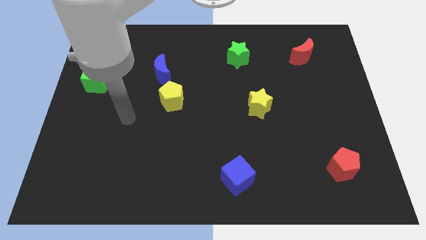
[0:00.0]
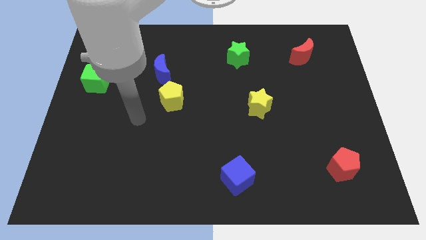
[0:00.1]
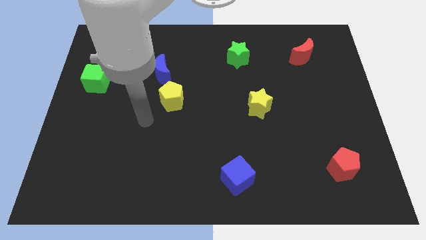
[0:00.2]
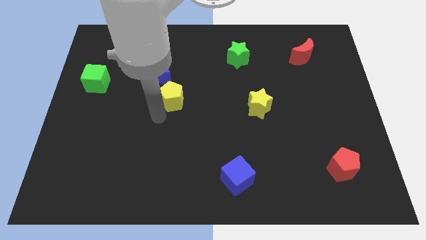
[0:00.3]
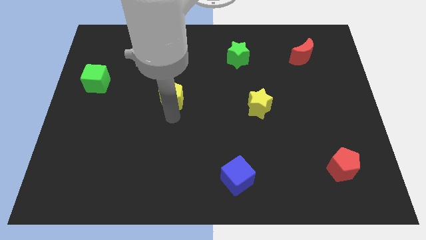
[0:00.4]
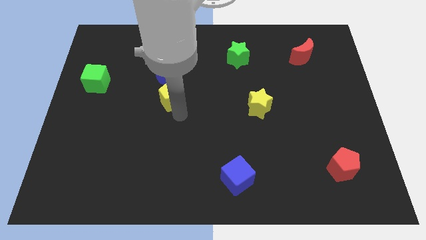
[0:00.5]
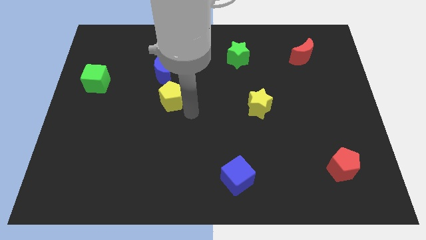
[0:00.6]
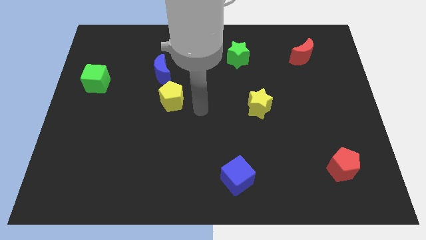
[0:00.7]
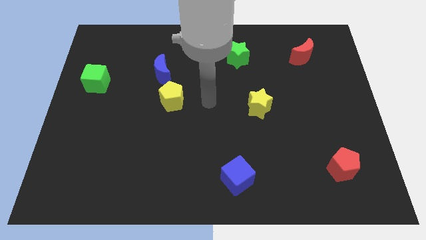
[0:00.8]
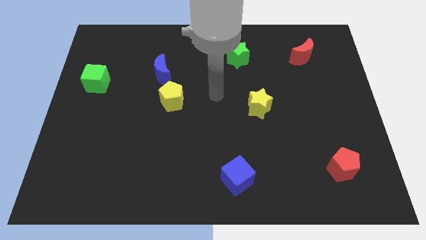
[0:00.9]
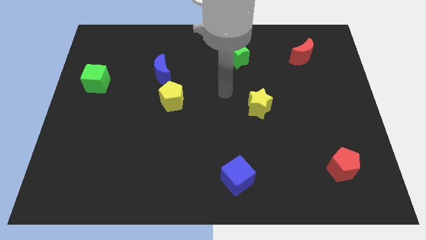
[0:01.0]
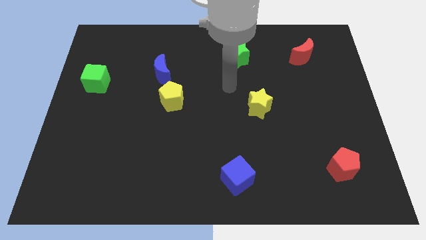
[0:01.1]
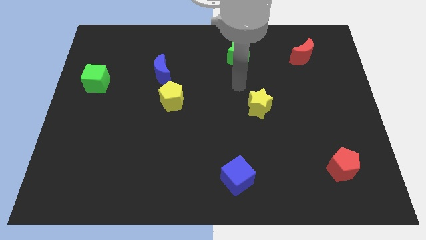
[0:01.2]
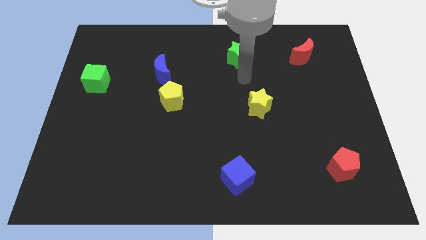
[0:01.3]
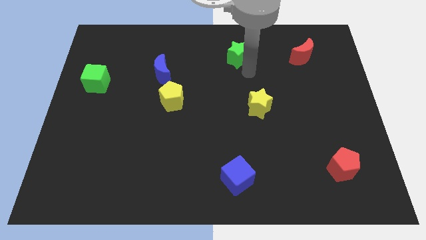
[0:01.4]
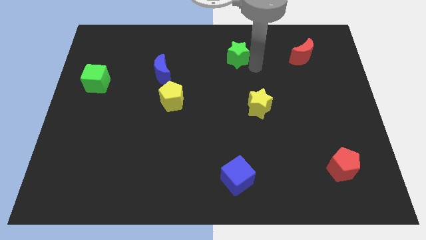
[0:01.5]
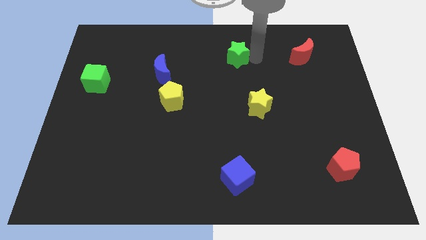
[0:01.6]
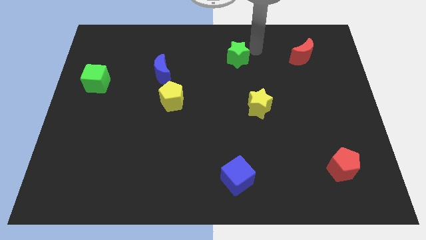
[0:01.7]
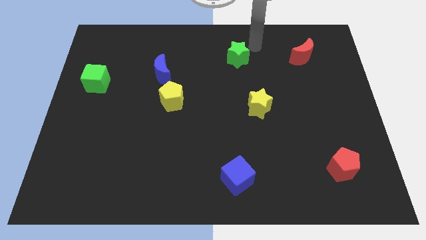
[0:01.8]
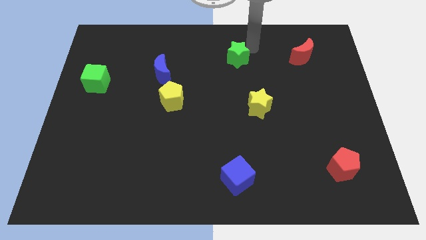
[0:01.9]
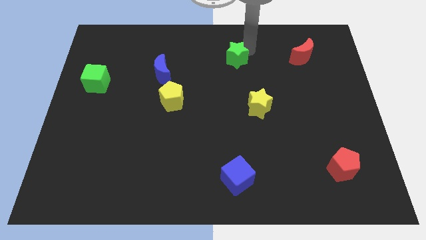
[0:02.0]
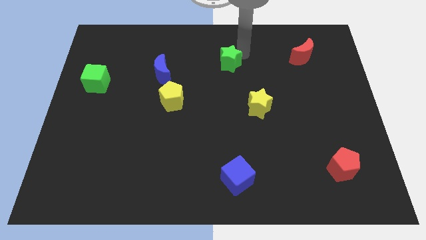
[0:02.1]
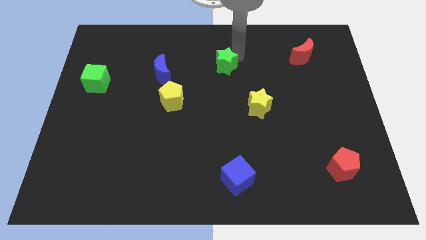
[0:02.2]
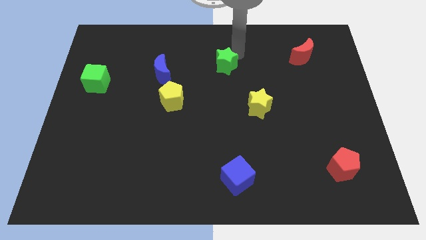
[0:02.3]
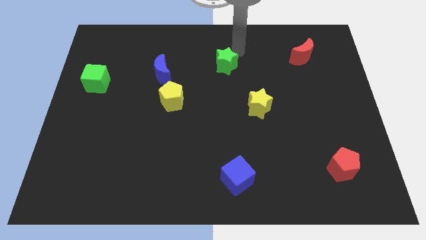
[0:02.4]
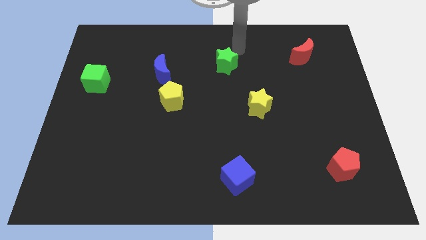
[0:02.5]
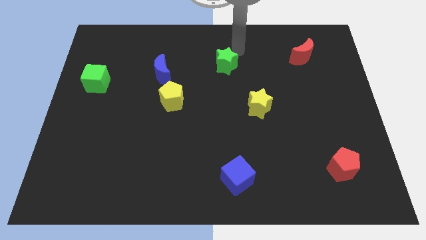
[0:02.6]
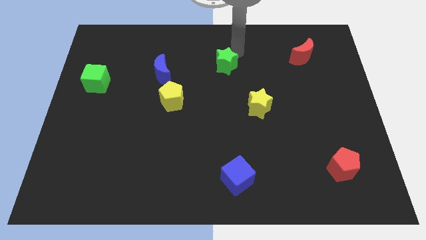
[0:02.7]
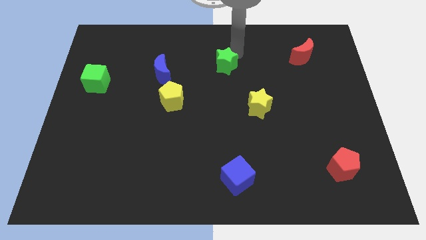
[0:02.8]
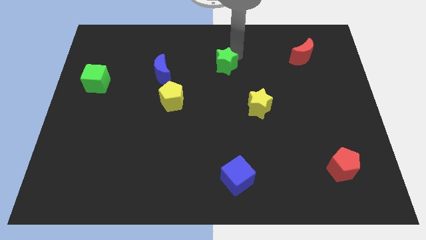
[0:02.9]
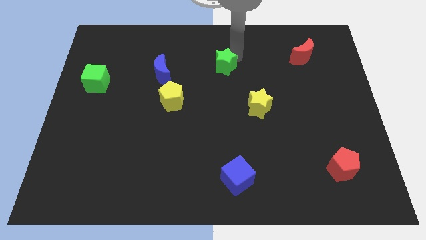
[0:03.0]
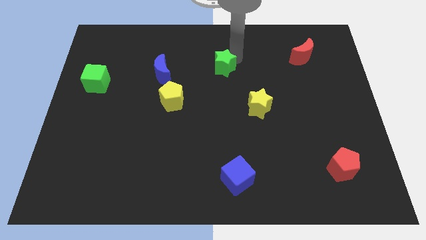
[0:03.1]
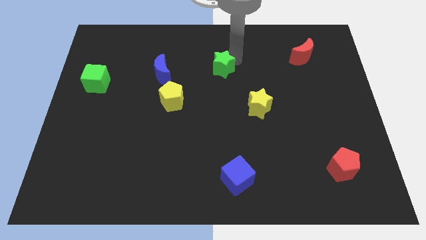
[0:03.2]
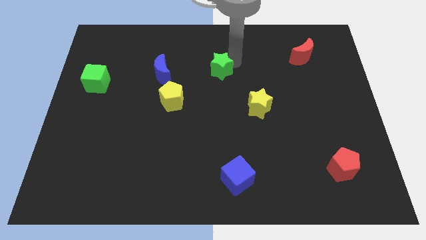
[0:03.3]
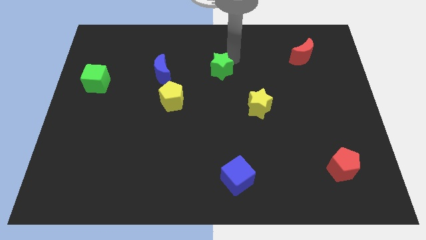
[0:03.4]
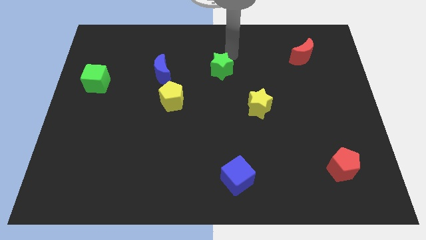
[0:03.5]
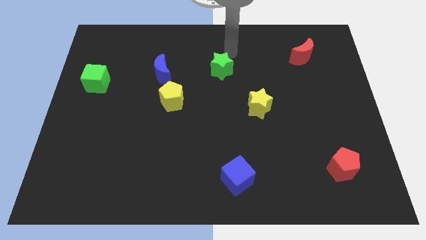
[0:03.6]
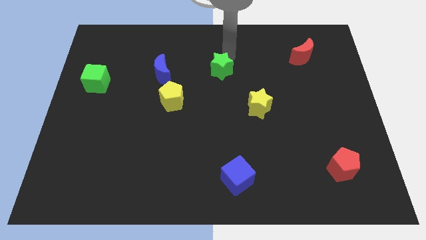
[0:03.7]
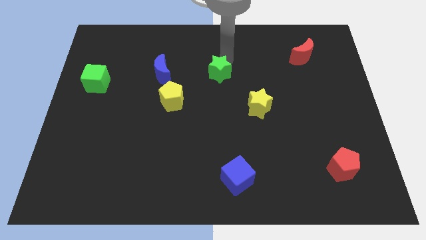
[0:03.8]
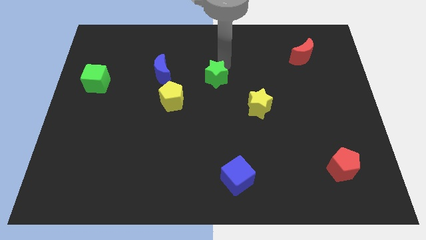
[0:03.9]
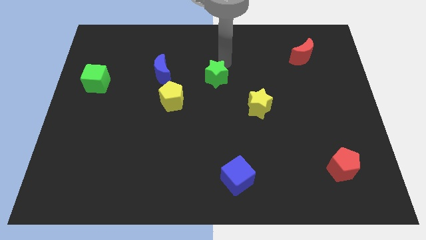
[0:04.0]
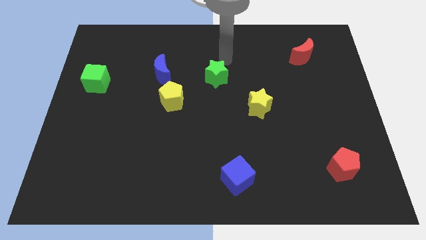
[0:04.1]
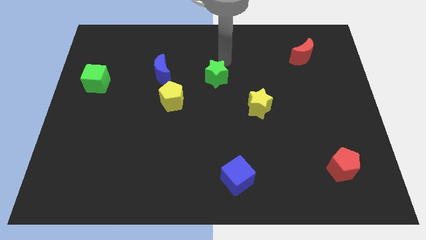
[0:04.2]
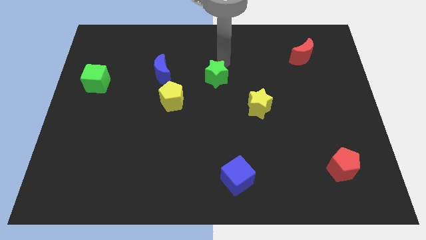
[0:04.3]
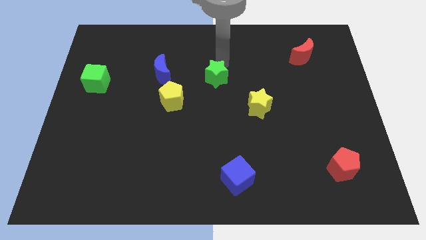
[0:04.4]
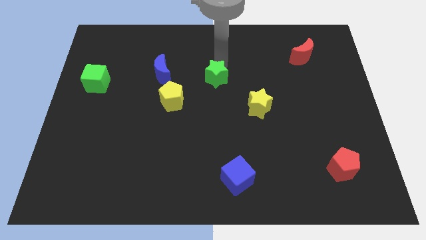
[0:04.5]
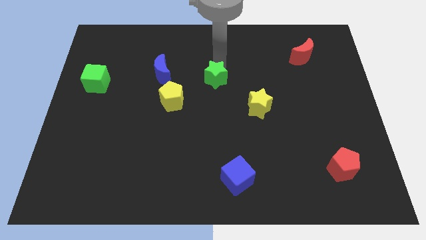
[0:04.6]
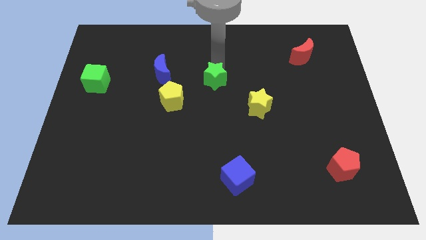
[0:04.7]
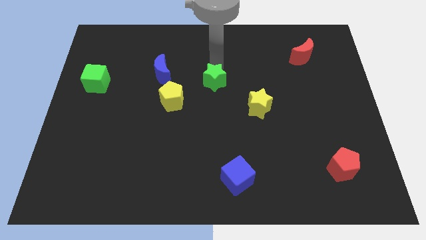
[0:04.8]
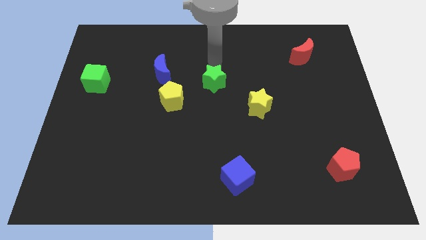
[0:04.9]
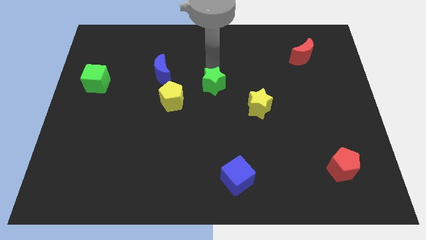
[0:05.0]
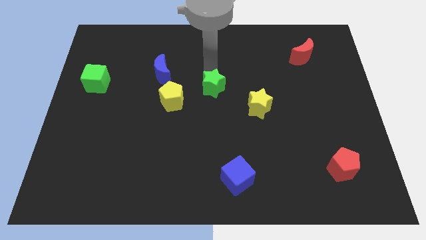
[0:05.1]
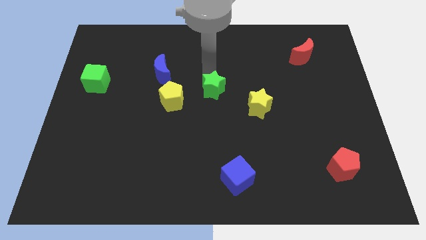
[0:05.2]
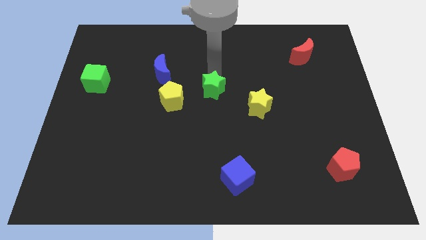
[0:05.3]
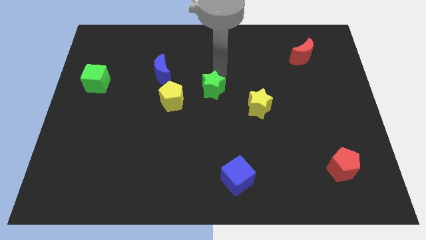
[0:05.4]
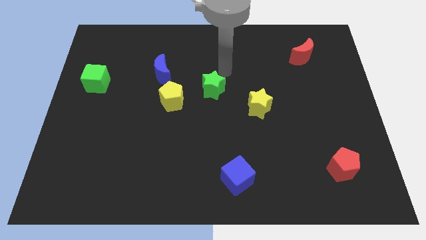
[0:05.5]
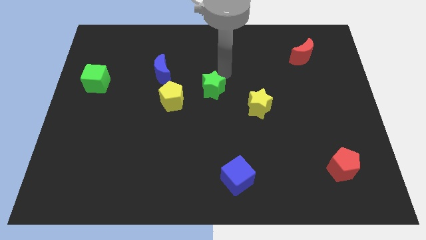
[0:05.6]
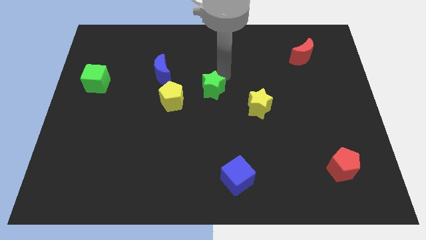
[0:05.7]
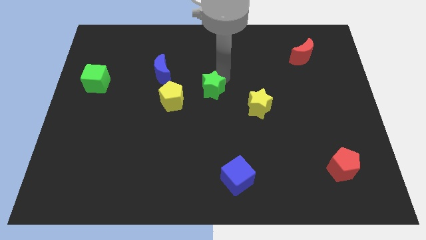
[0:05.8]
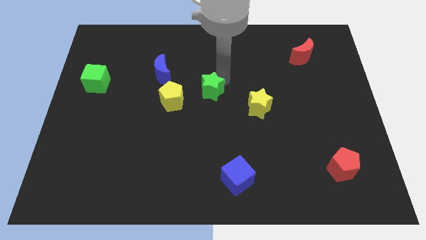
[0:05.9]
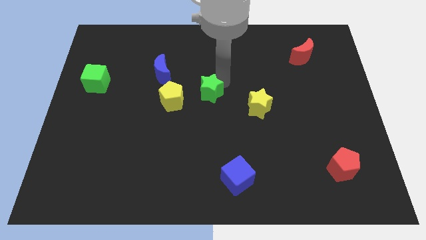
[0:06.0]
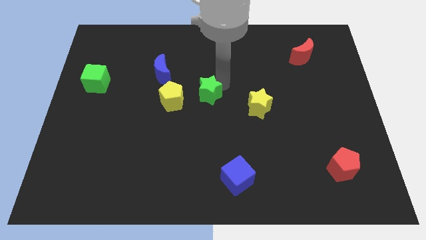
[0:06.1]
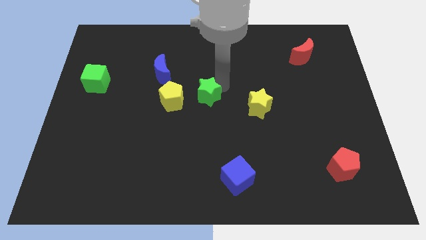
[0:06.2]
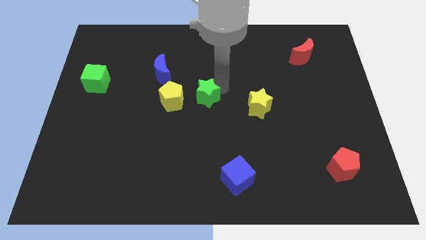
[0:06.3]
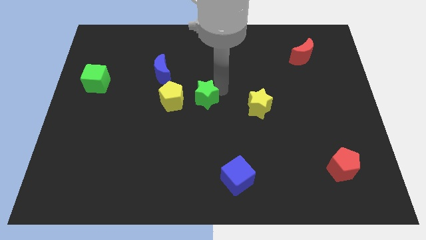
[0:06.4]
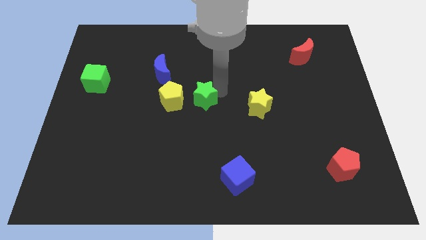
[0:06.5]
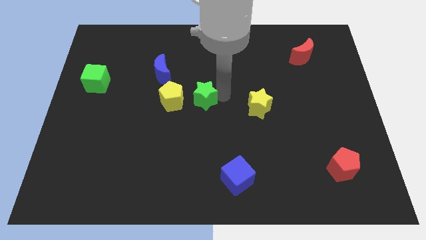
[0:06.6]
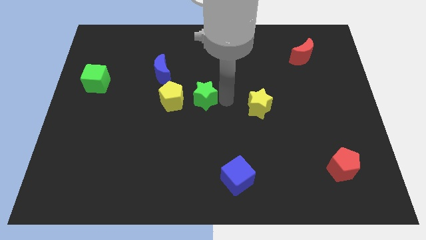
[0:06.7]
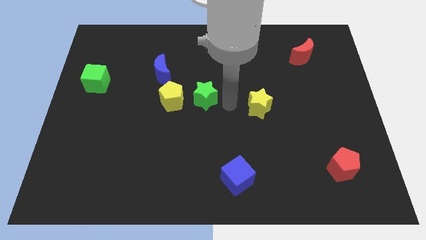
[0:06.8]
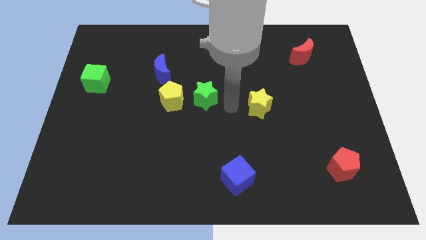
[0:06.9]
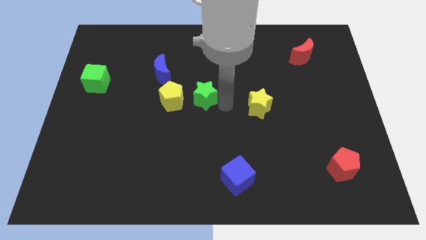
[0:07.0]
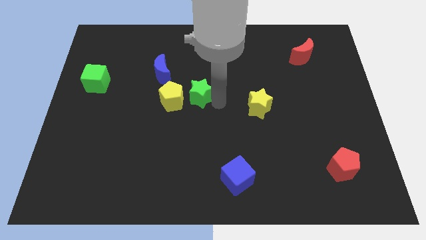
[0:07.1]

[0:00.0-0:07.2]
slide the green star to the bottom right side of the blue moon

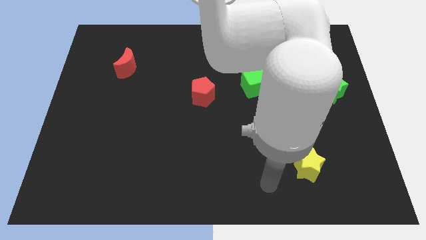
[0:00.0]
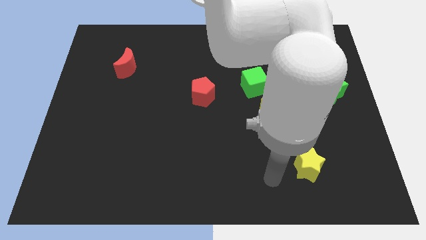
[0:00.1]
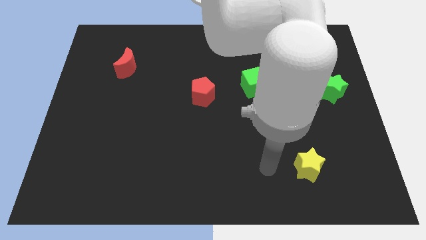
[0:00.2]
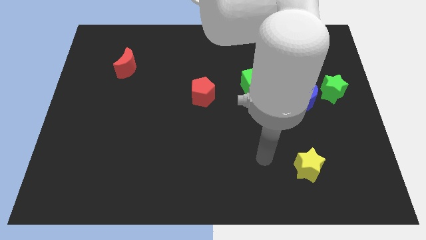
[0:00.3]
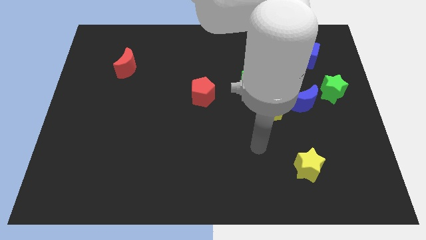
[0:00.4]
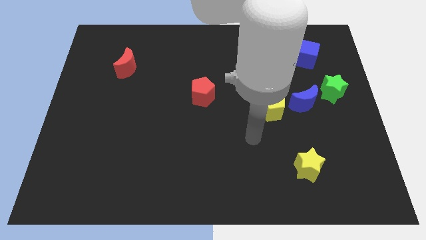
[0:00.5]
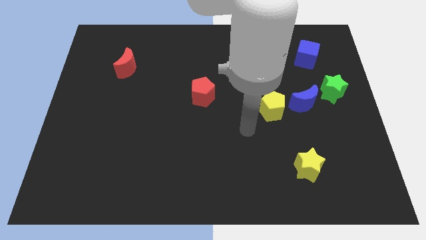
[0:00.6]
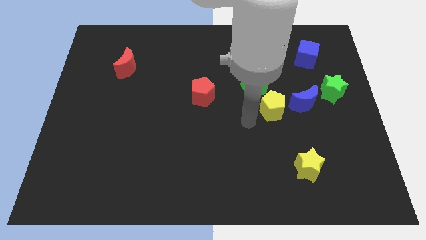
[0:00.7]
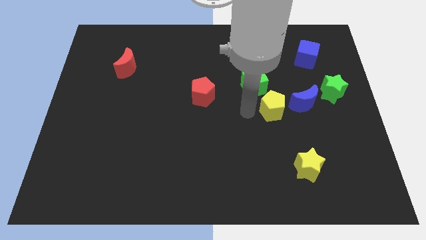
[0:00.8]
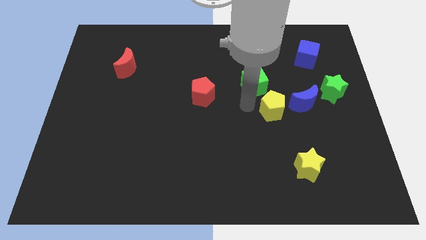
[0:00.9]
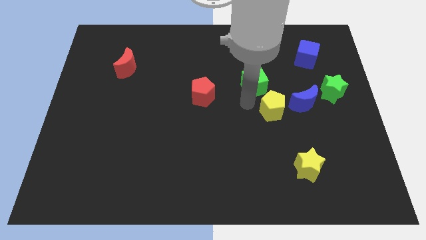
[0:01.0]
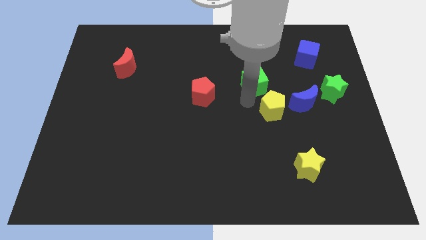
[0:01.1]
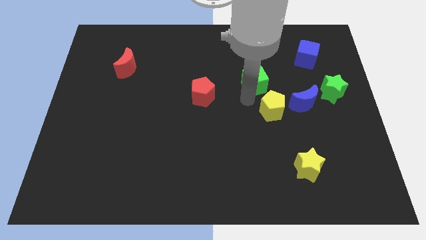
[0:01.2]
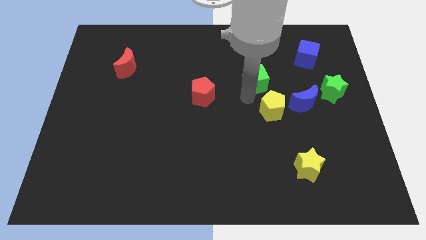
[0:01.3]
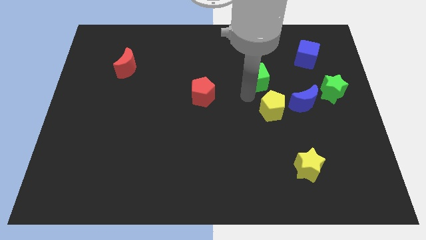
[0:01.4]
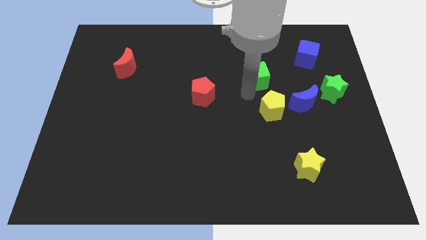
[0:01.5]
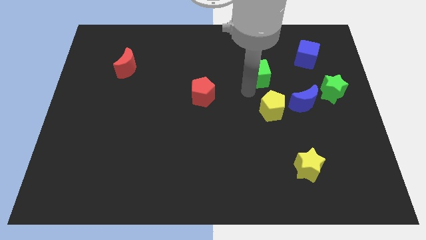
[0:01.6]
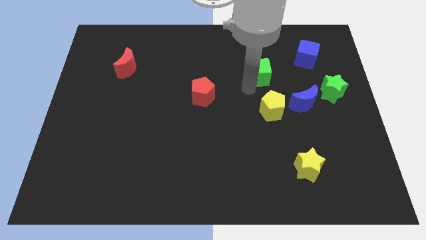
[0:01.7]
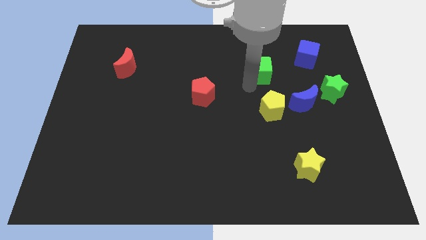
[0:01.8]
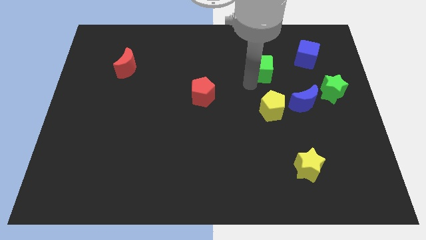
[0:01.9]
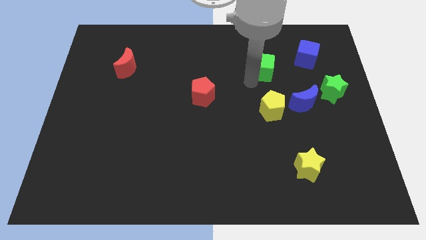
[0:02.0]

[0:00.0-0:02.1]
push the green cube left of the blue cube
